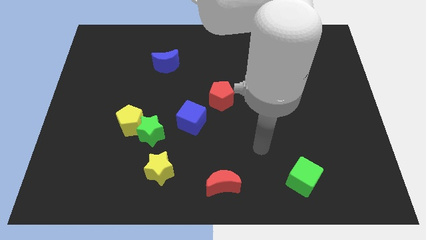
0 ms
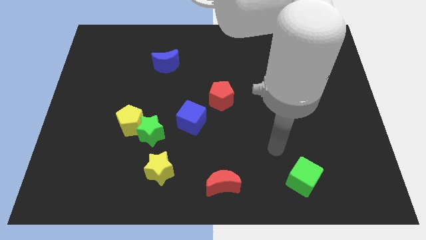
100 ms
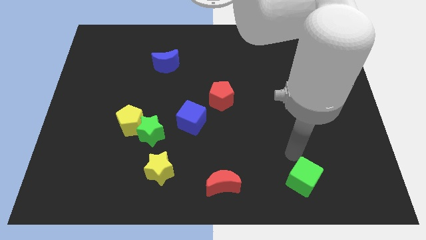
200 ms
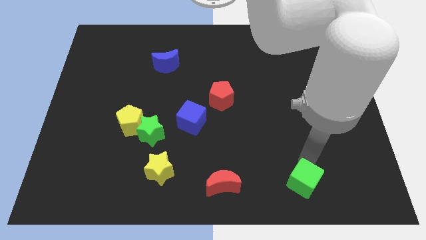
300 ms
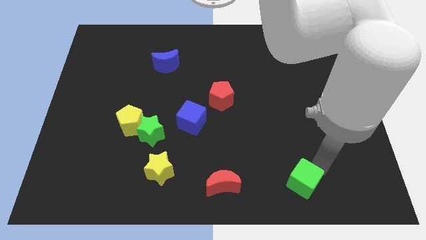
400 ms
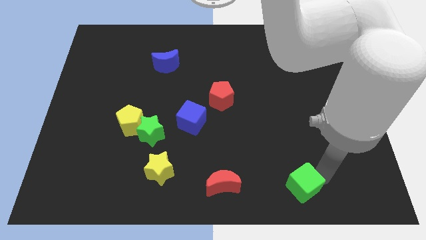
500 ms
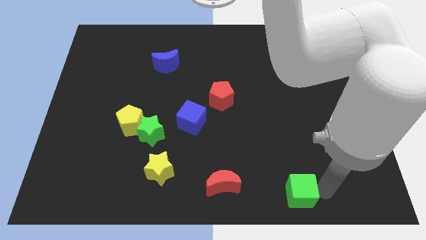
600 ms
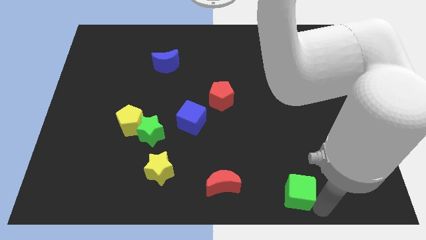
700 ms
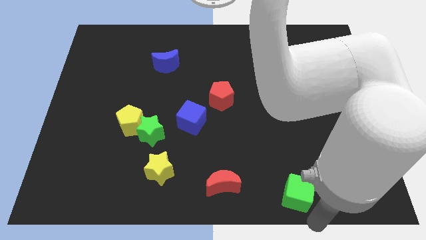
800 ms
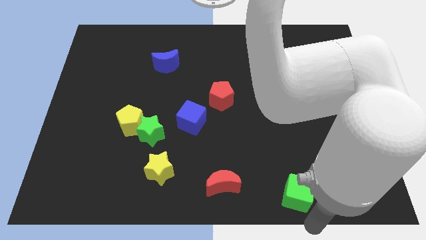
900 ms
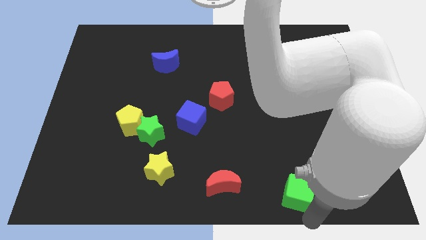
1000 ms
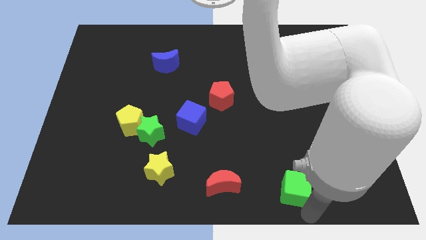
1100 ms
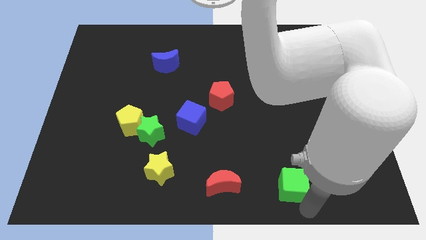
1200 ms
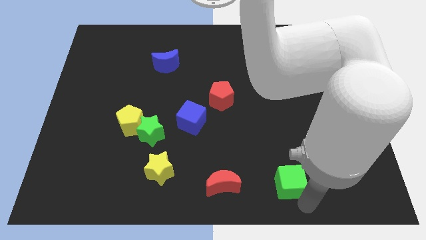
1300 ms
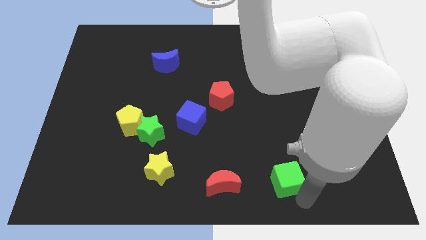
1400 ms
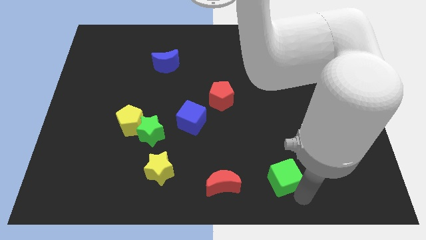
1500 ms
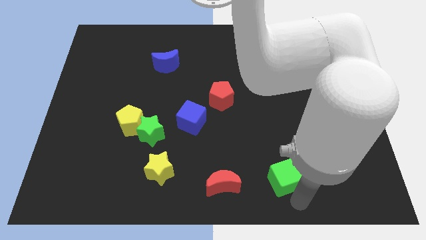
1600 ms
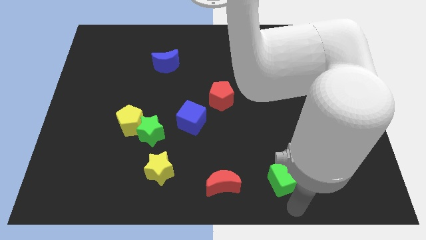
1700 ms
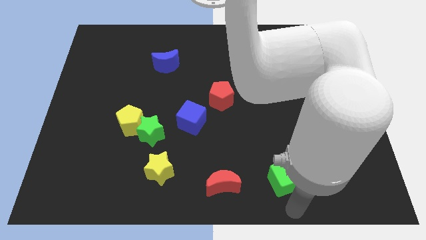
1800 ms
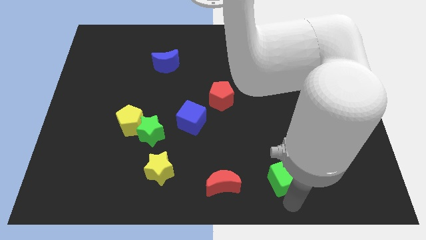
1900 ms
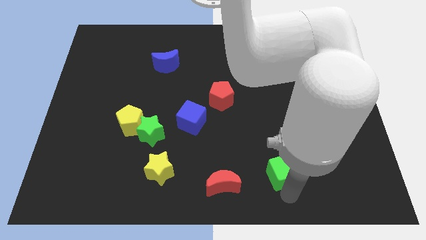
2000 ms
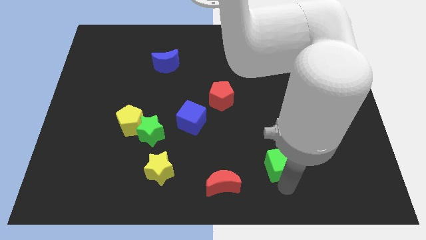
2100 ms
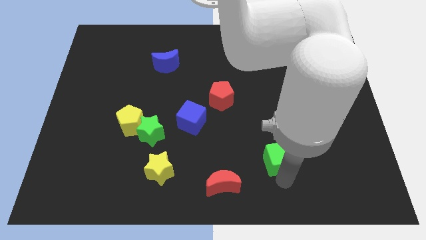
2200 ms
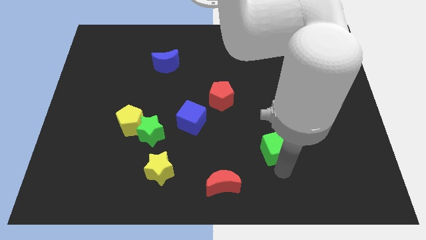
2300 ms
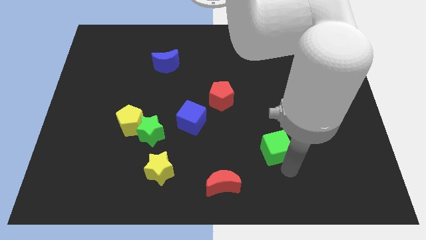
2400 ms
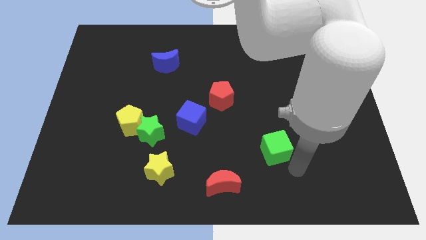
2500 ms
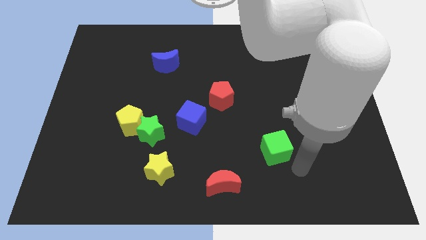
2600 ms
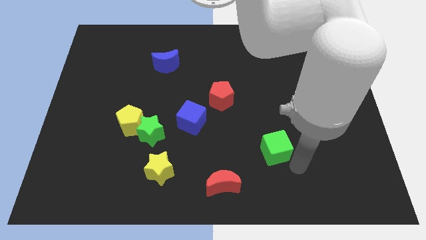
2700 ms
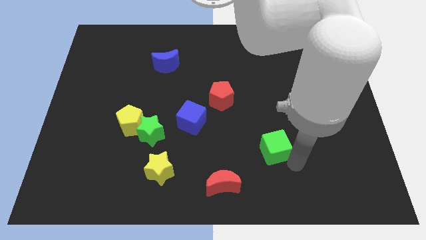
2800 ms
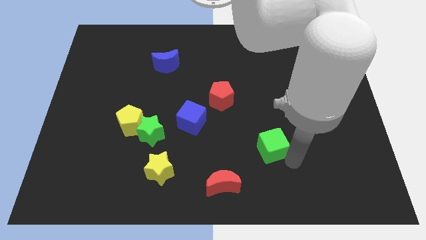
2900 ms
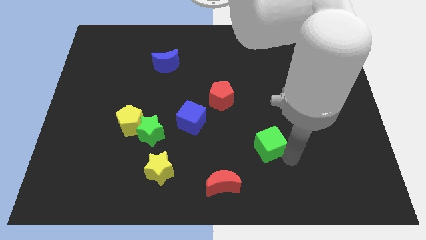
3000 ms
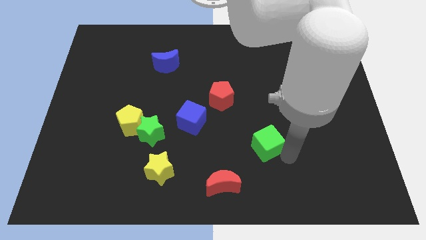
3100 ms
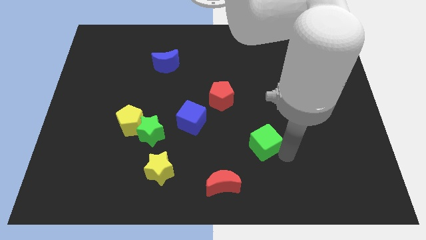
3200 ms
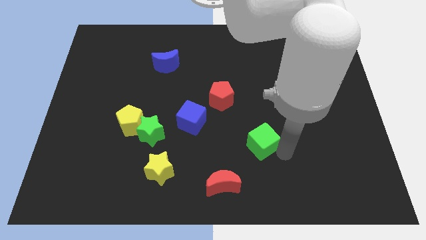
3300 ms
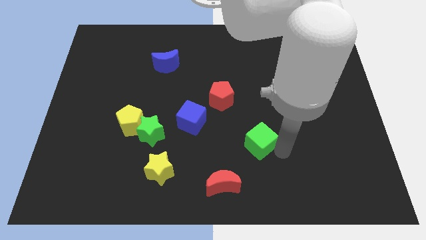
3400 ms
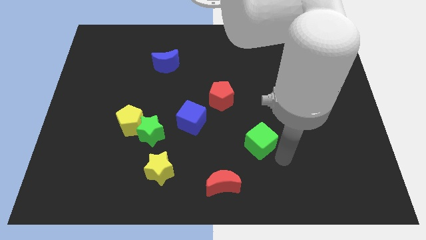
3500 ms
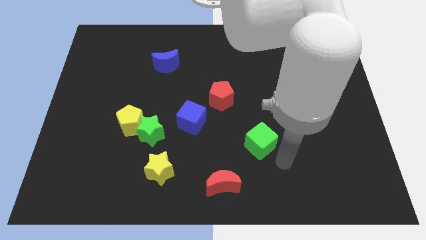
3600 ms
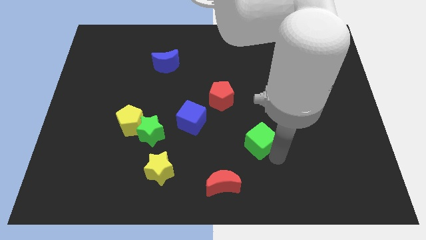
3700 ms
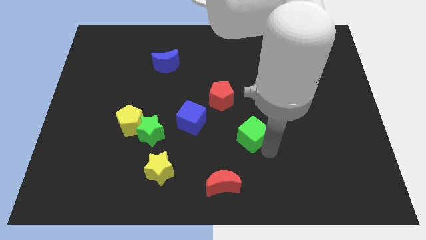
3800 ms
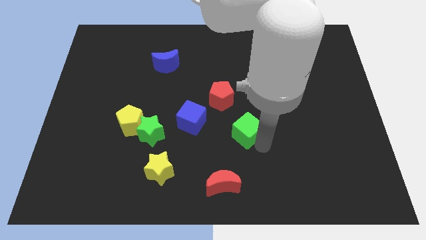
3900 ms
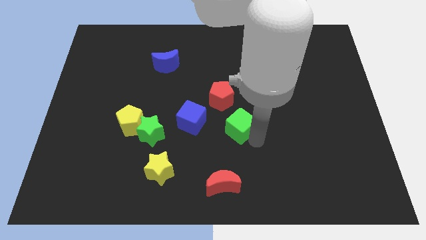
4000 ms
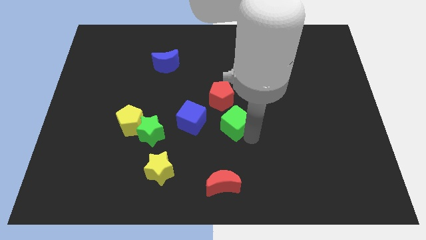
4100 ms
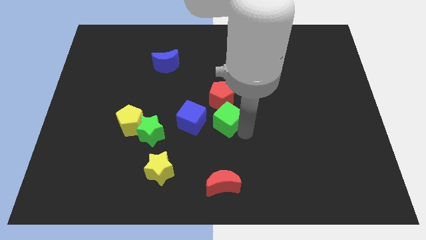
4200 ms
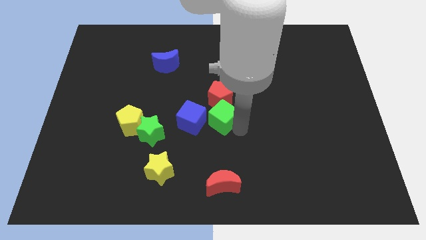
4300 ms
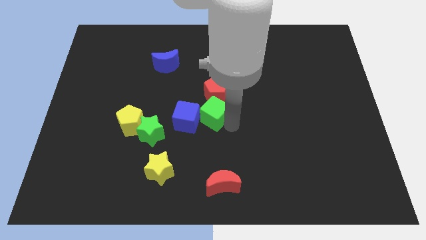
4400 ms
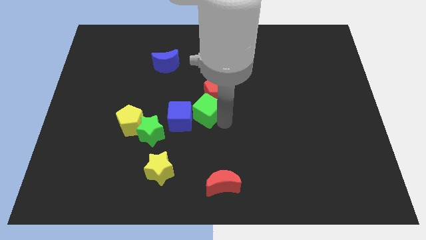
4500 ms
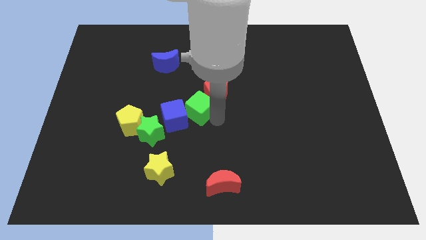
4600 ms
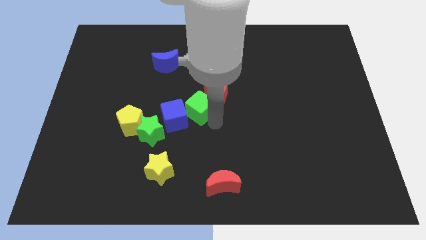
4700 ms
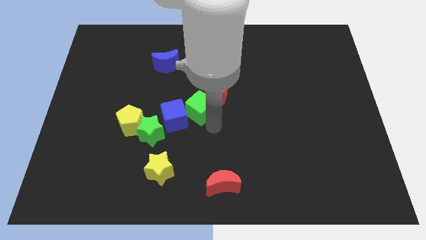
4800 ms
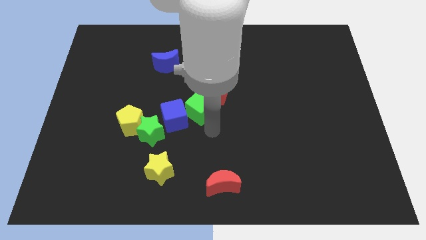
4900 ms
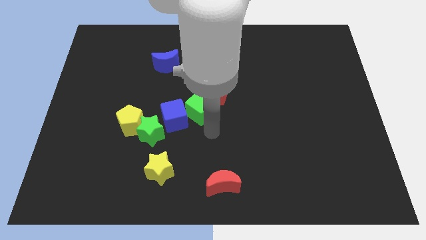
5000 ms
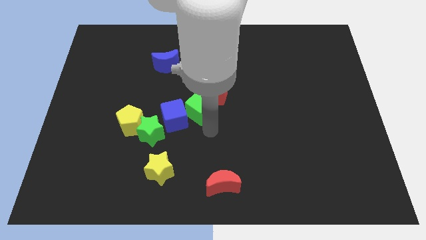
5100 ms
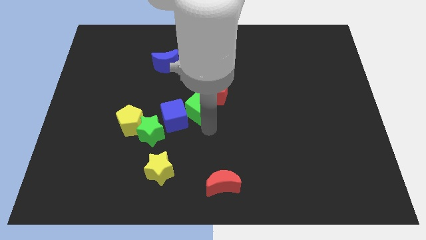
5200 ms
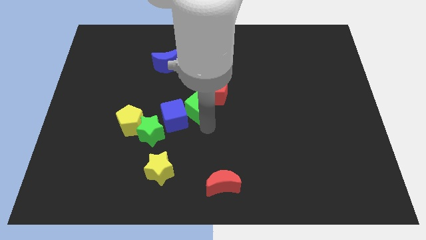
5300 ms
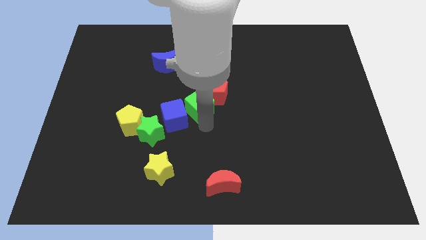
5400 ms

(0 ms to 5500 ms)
move the green cube to the left side of the red pentagon

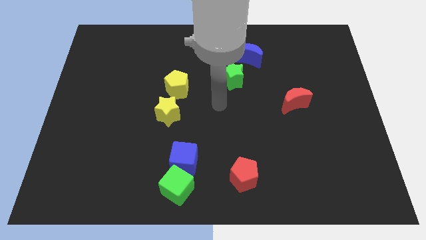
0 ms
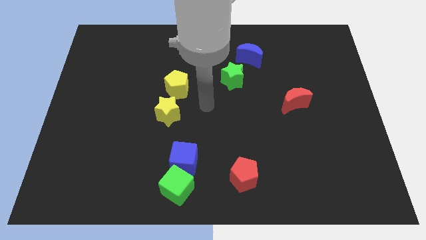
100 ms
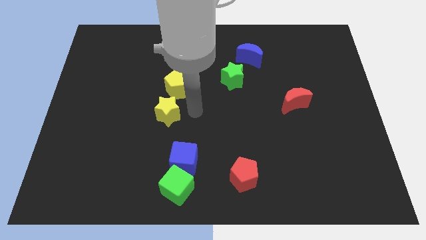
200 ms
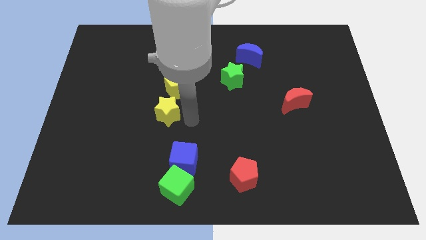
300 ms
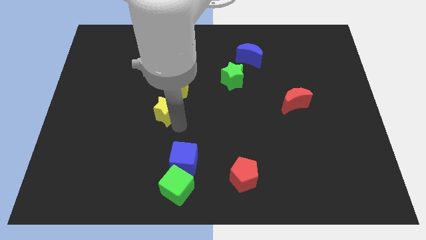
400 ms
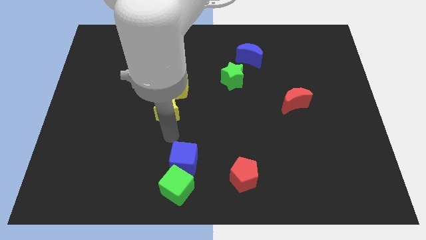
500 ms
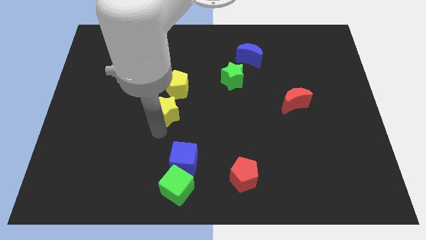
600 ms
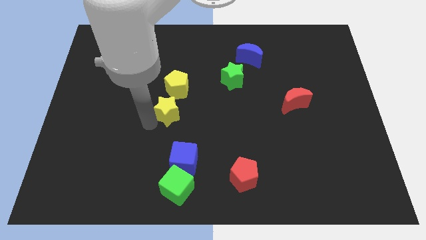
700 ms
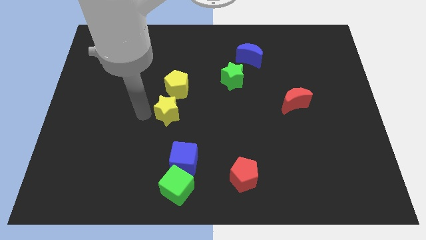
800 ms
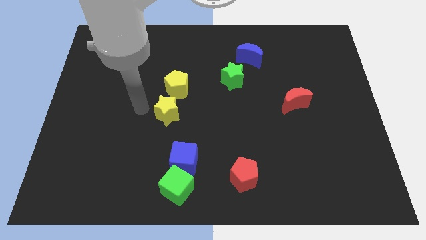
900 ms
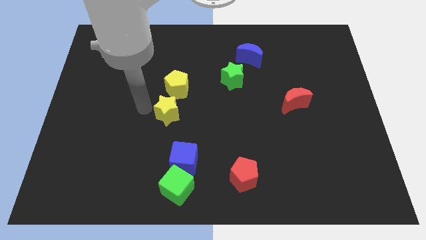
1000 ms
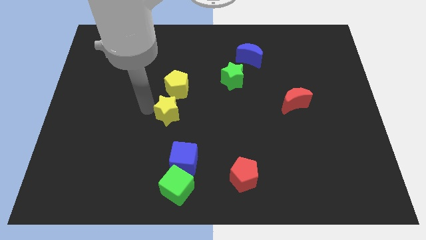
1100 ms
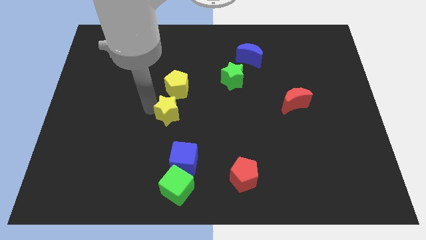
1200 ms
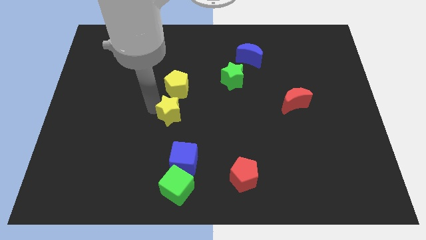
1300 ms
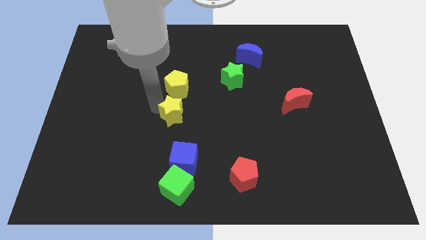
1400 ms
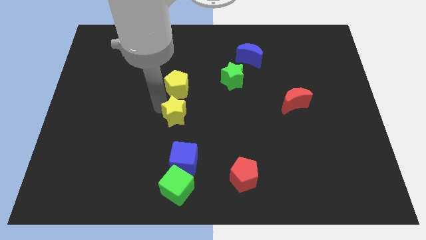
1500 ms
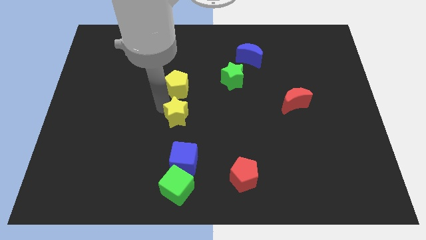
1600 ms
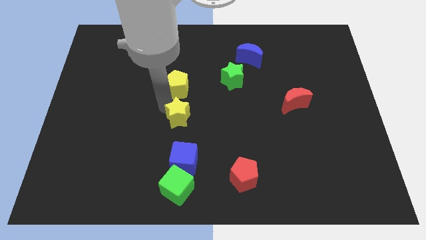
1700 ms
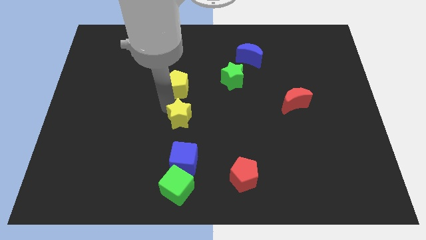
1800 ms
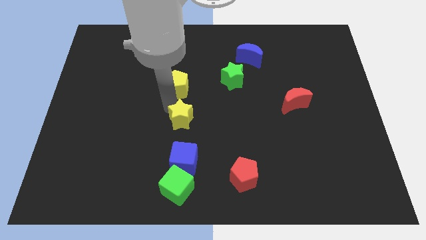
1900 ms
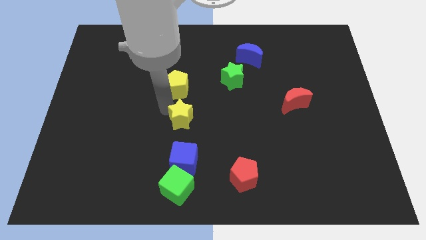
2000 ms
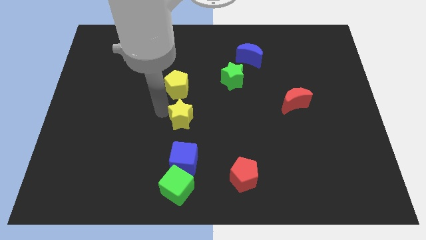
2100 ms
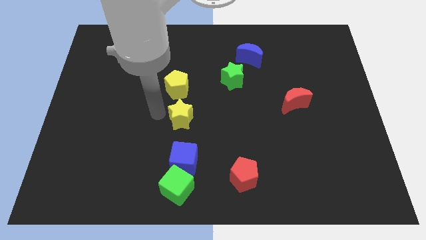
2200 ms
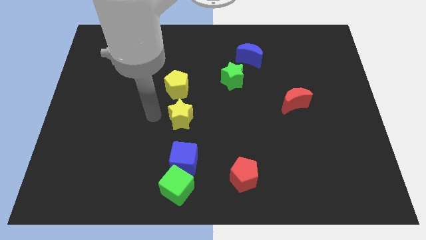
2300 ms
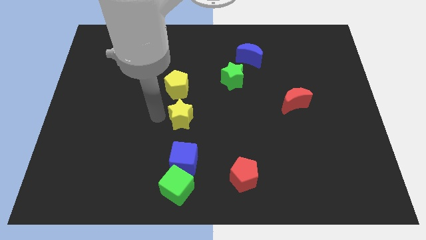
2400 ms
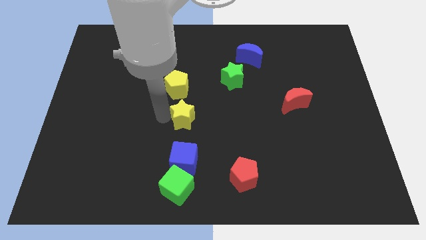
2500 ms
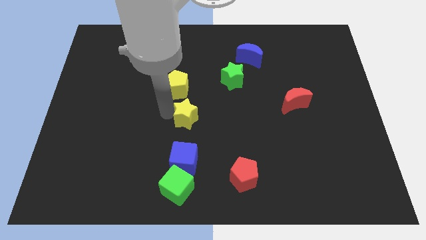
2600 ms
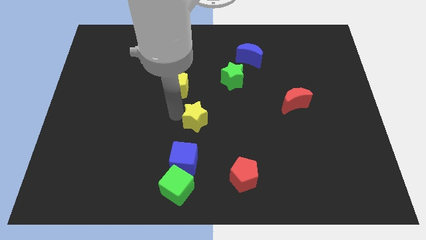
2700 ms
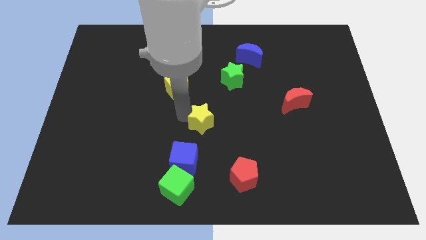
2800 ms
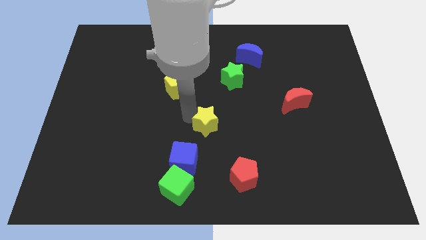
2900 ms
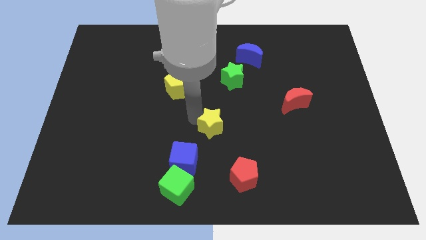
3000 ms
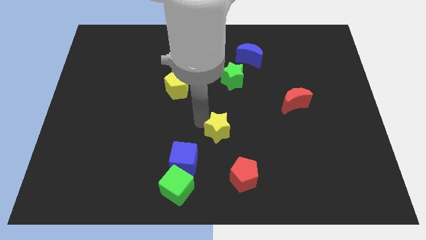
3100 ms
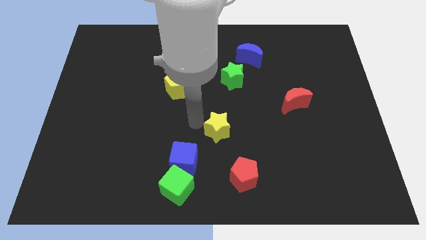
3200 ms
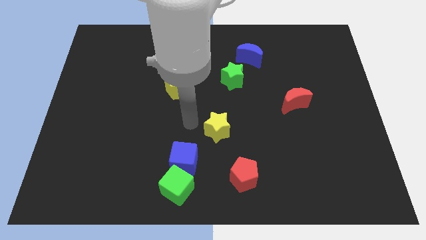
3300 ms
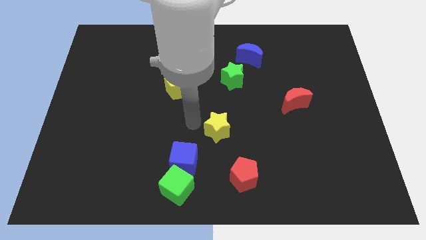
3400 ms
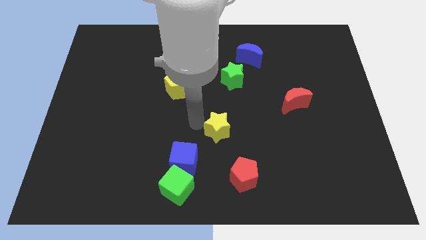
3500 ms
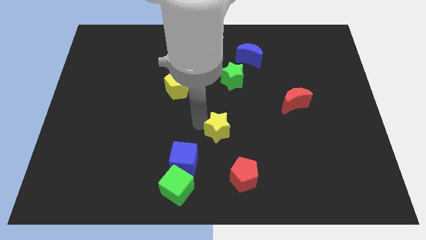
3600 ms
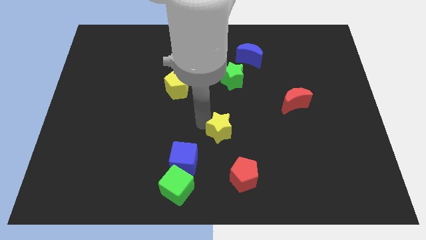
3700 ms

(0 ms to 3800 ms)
slide the yellow star to the top side of the red pentagon
